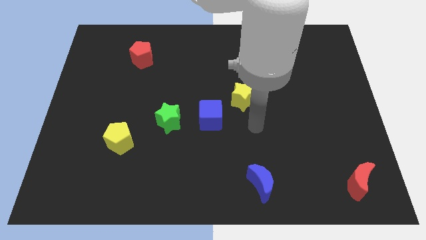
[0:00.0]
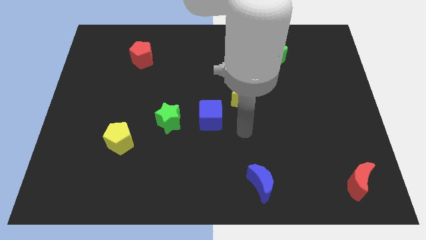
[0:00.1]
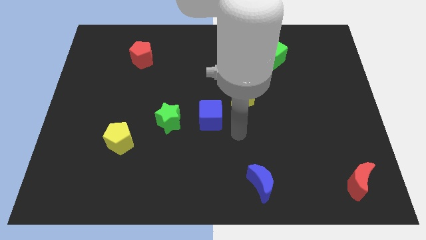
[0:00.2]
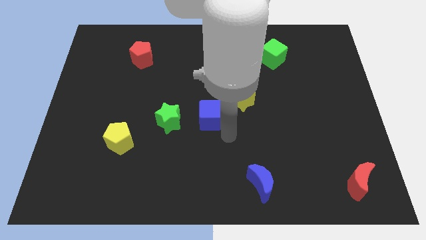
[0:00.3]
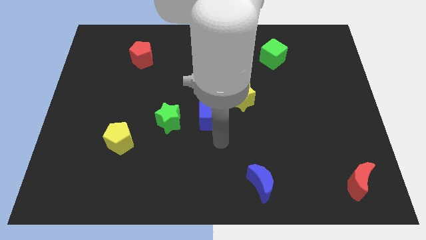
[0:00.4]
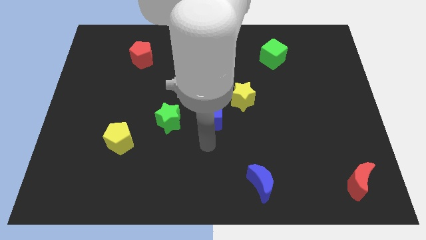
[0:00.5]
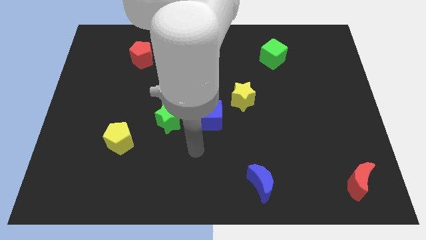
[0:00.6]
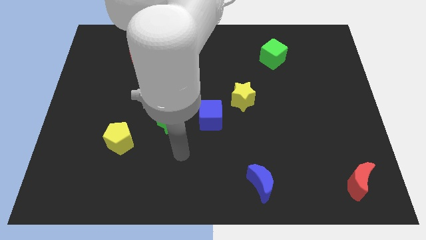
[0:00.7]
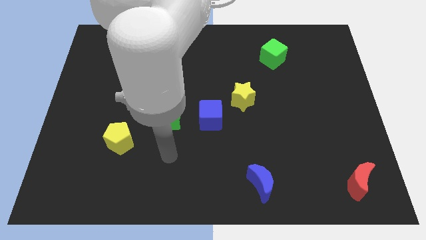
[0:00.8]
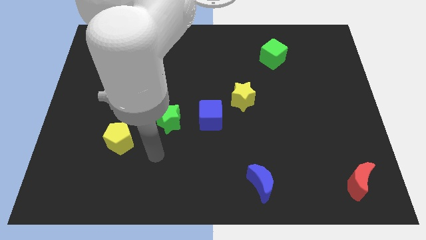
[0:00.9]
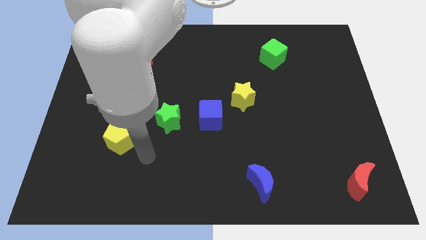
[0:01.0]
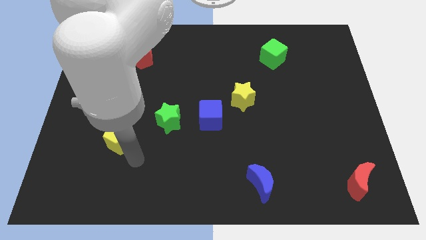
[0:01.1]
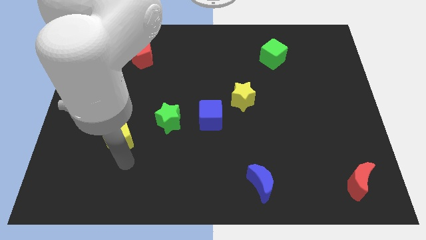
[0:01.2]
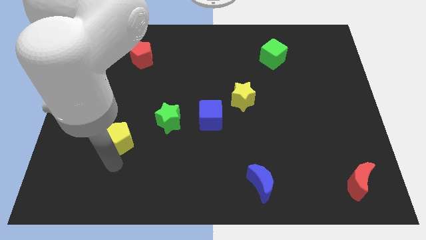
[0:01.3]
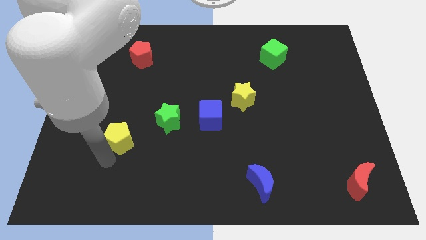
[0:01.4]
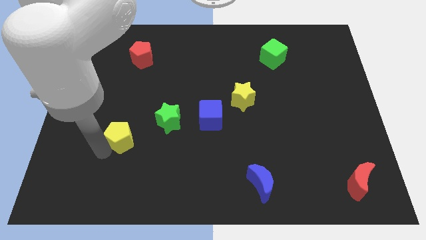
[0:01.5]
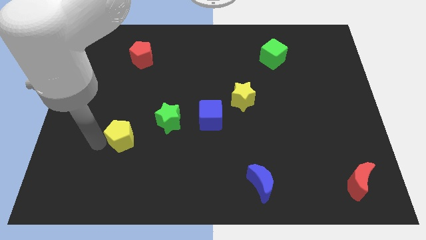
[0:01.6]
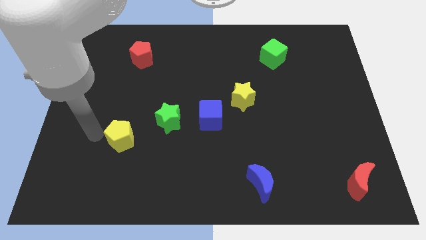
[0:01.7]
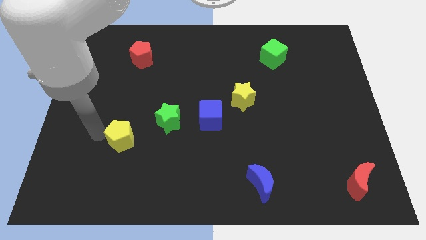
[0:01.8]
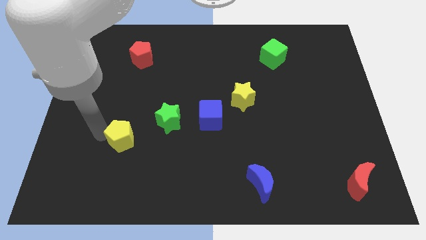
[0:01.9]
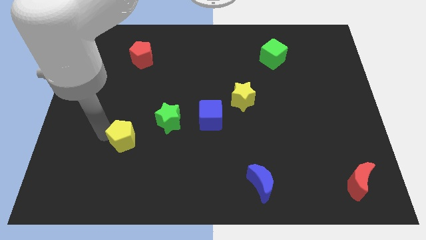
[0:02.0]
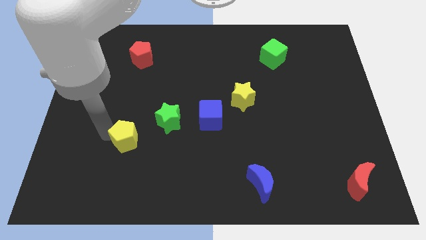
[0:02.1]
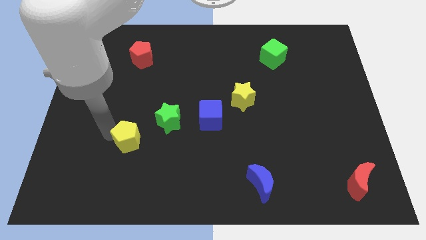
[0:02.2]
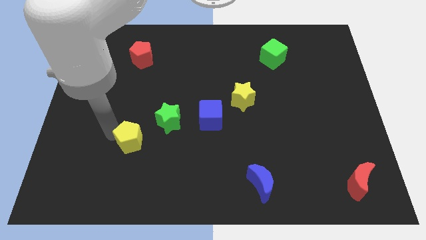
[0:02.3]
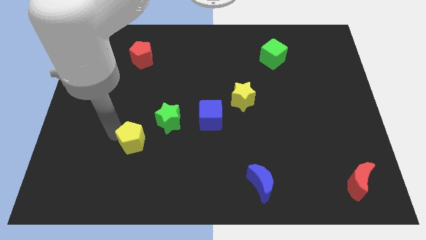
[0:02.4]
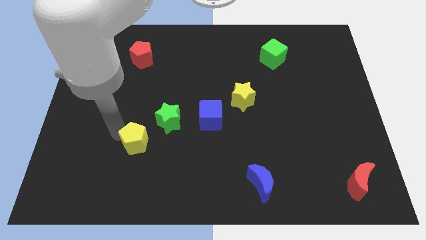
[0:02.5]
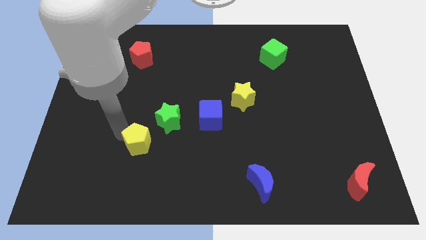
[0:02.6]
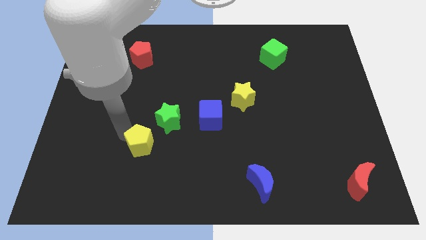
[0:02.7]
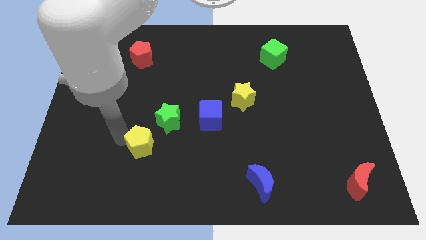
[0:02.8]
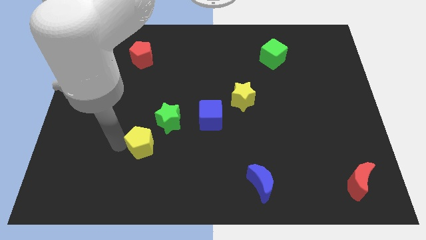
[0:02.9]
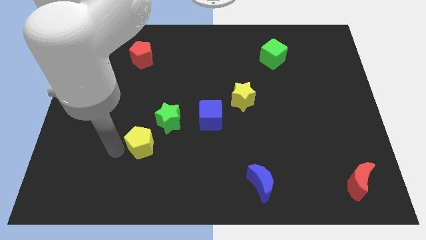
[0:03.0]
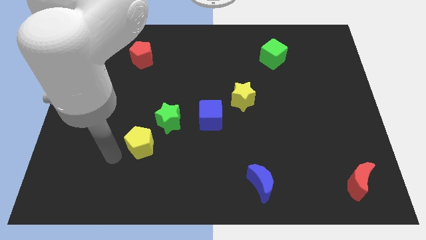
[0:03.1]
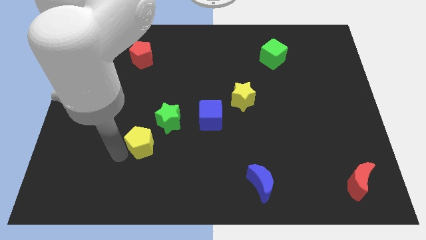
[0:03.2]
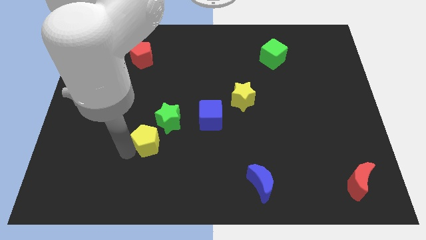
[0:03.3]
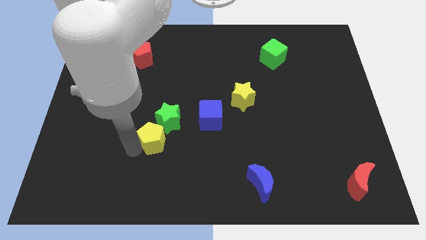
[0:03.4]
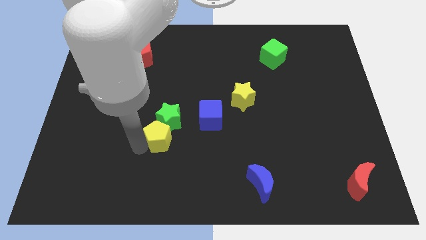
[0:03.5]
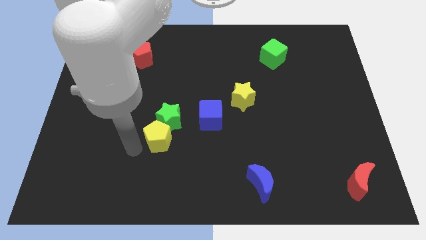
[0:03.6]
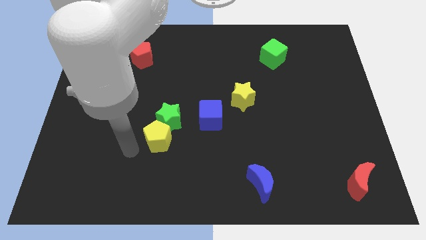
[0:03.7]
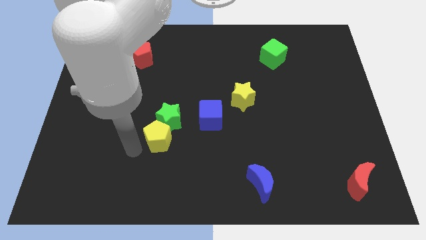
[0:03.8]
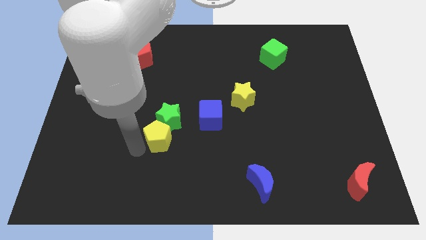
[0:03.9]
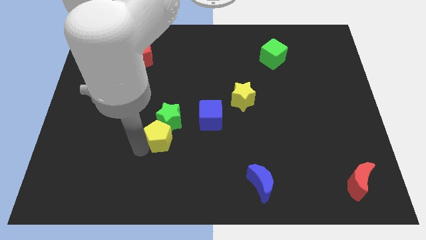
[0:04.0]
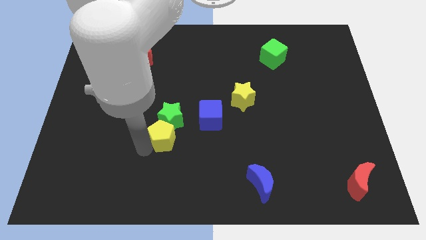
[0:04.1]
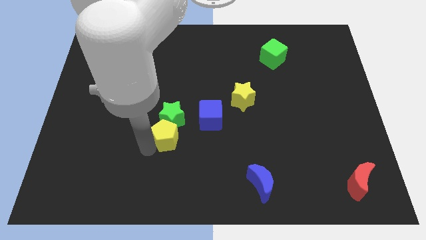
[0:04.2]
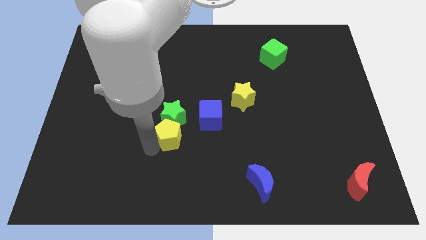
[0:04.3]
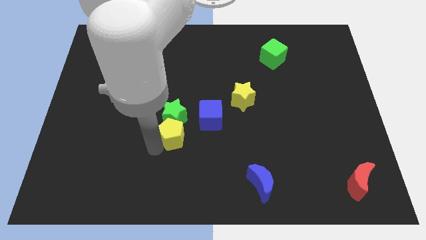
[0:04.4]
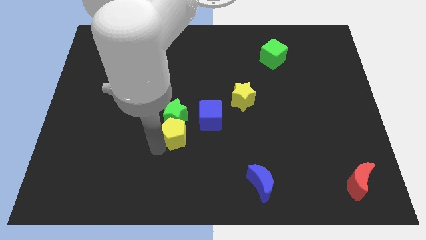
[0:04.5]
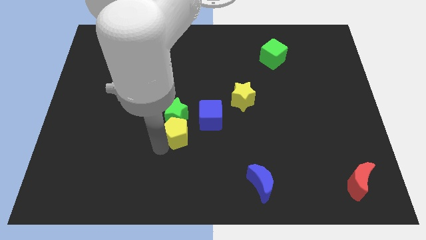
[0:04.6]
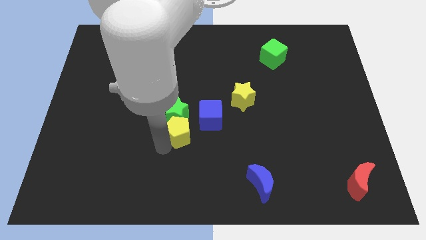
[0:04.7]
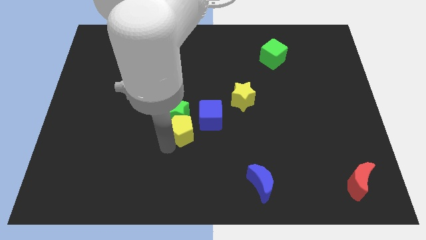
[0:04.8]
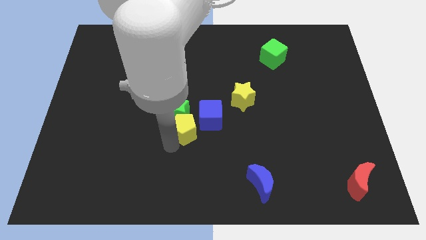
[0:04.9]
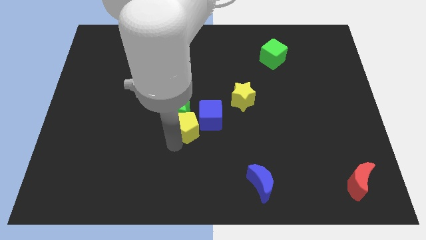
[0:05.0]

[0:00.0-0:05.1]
push the yellow pentagon close to the blue cube

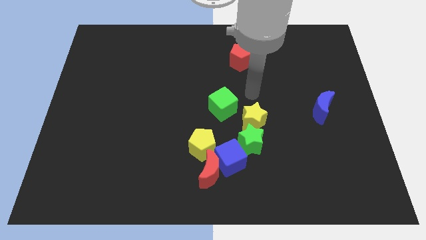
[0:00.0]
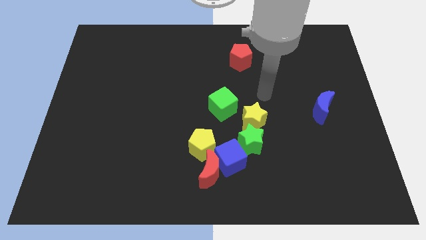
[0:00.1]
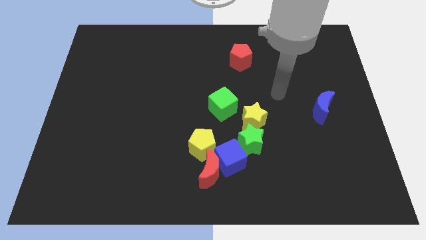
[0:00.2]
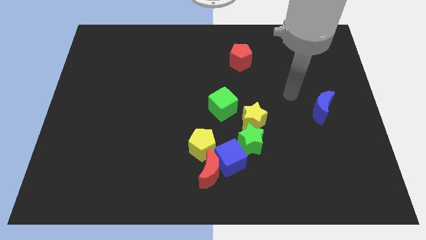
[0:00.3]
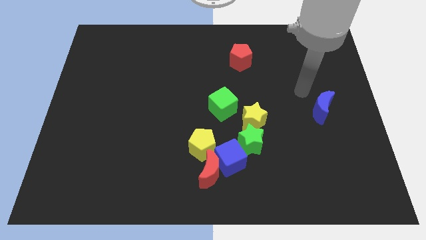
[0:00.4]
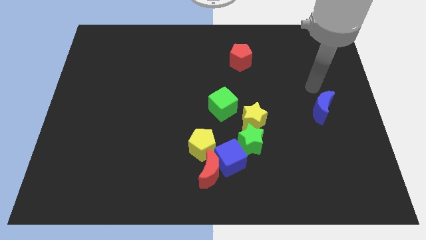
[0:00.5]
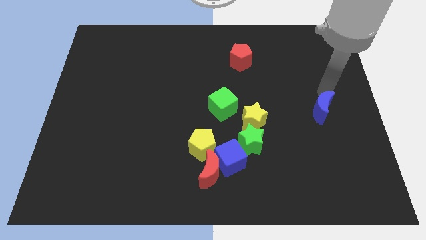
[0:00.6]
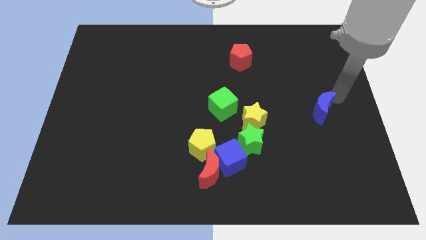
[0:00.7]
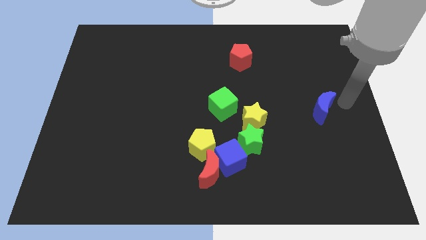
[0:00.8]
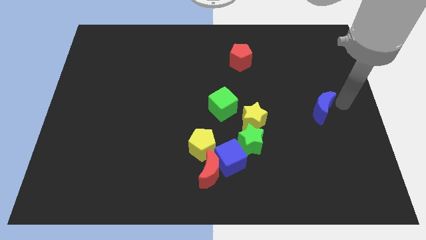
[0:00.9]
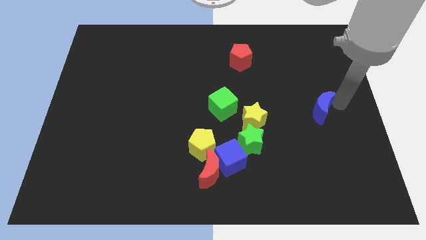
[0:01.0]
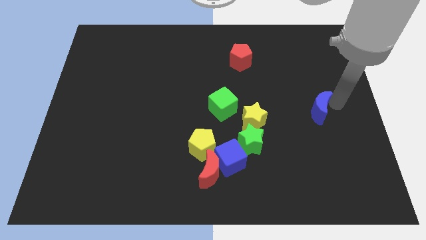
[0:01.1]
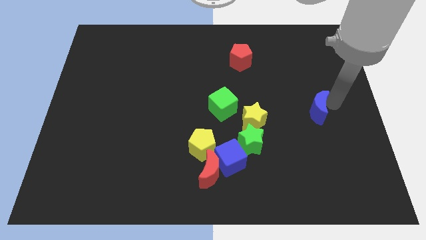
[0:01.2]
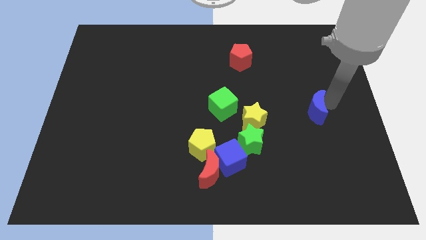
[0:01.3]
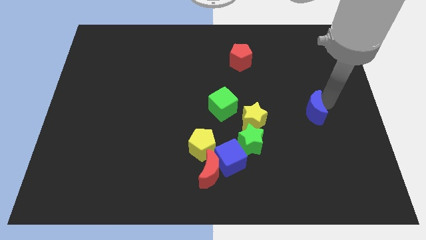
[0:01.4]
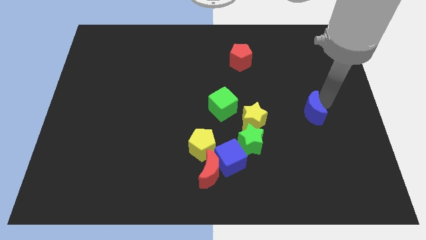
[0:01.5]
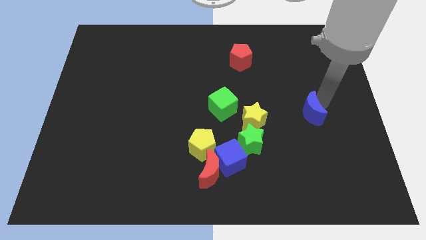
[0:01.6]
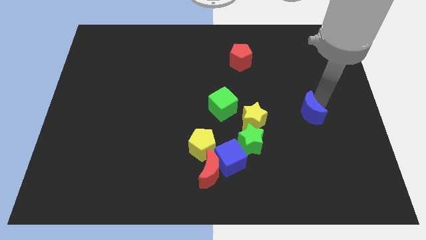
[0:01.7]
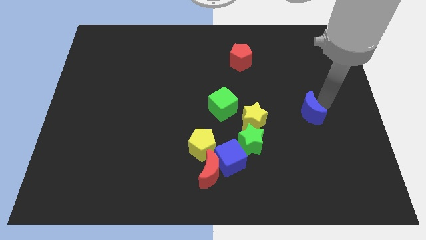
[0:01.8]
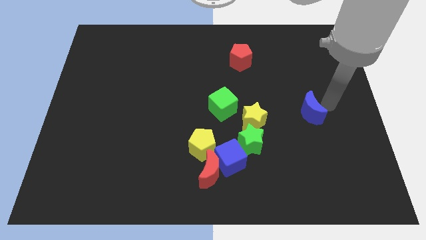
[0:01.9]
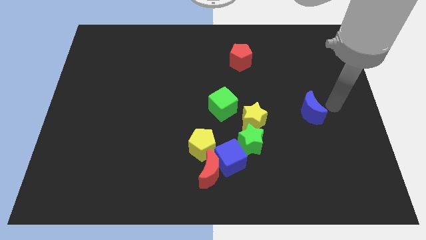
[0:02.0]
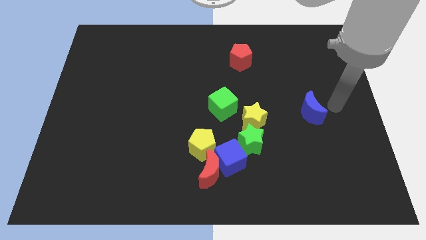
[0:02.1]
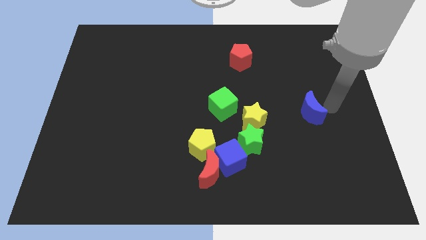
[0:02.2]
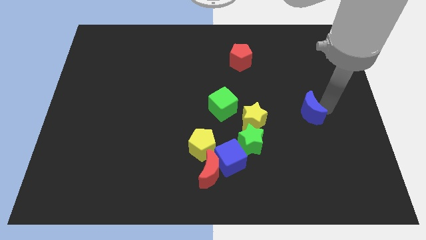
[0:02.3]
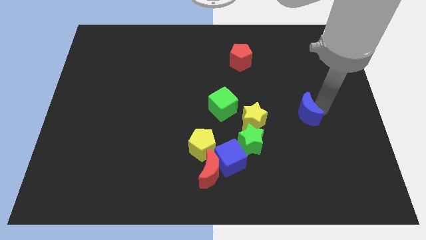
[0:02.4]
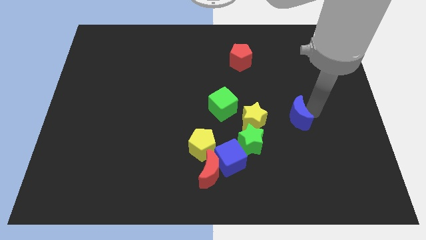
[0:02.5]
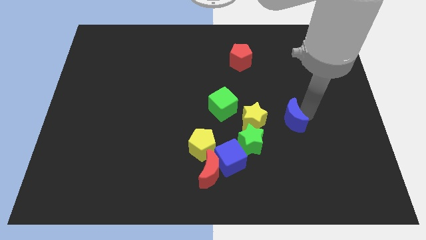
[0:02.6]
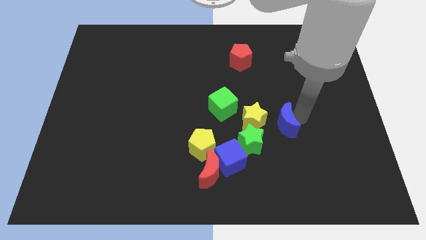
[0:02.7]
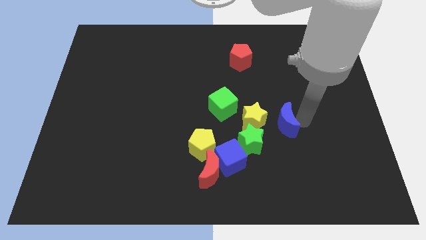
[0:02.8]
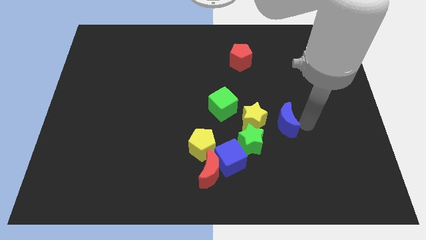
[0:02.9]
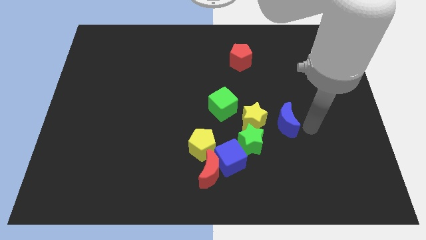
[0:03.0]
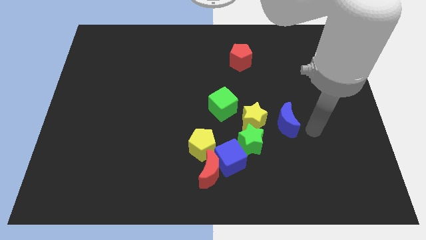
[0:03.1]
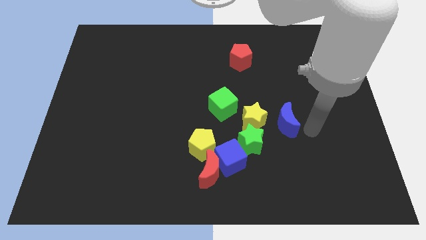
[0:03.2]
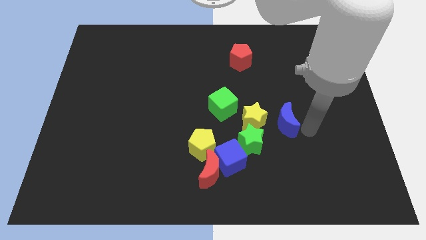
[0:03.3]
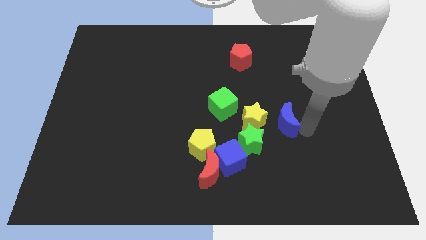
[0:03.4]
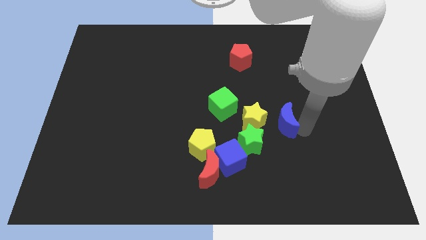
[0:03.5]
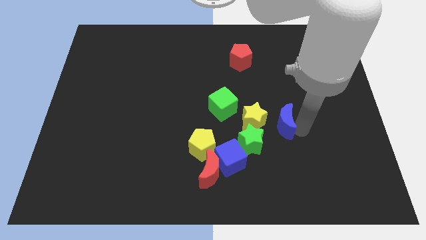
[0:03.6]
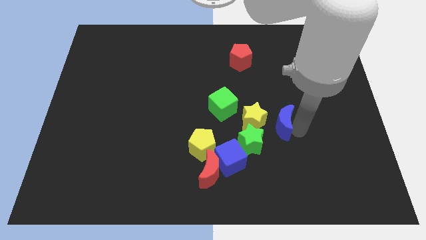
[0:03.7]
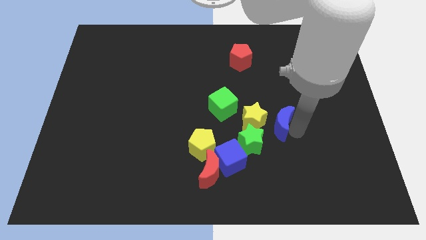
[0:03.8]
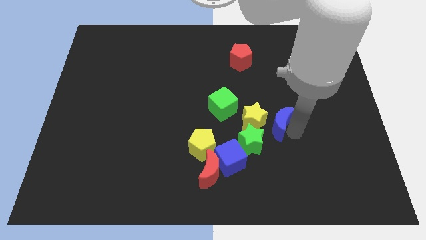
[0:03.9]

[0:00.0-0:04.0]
put the blue moon towards the yellow star
